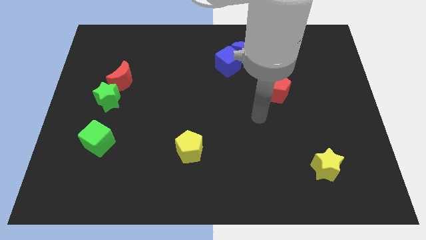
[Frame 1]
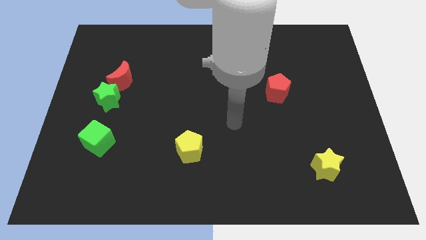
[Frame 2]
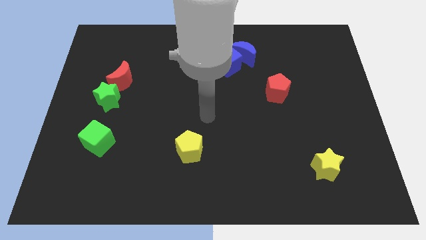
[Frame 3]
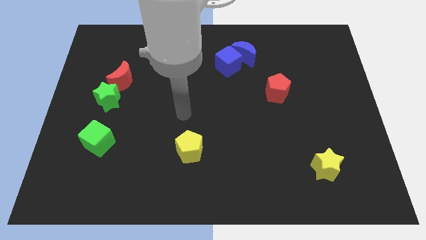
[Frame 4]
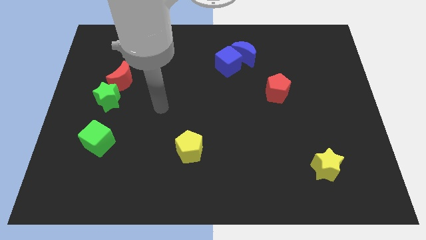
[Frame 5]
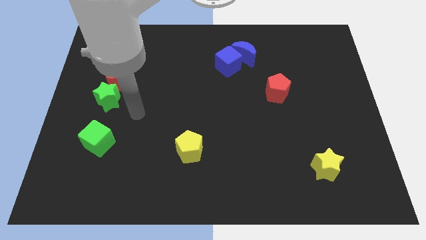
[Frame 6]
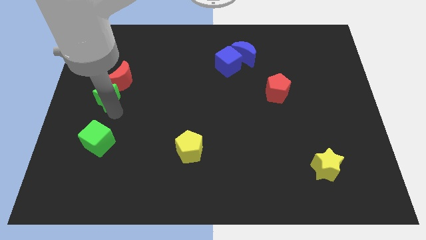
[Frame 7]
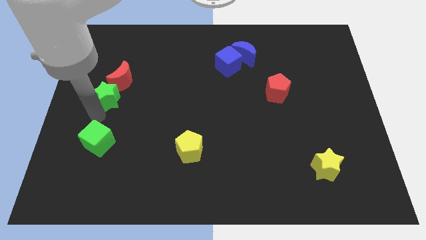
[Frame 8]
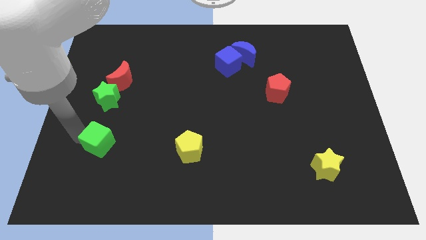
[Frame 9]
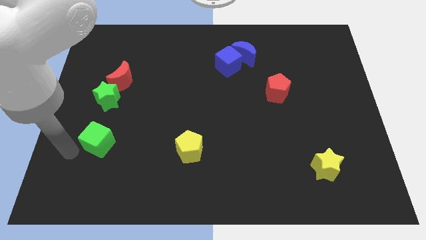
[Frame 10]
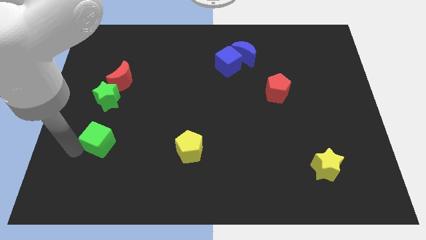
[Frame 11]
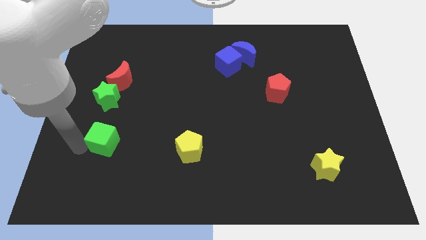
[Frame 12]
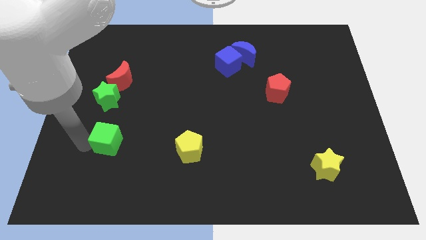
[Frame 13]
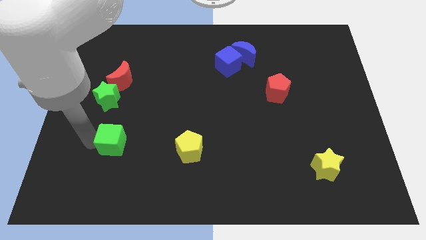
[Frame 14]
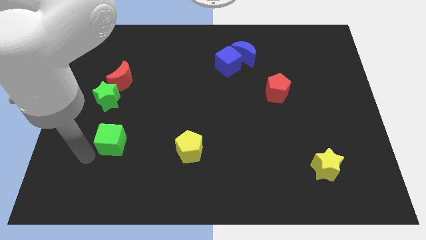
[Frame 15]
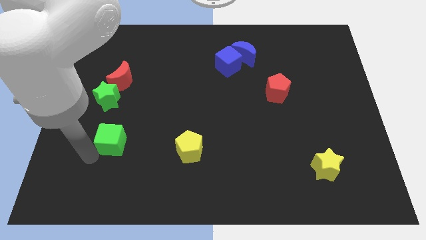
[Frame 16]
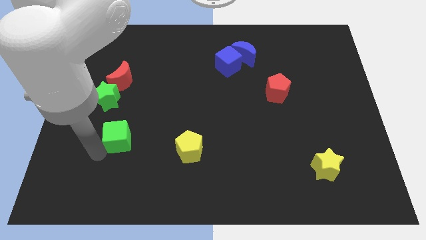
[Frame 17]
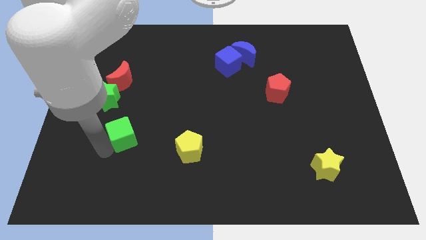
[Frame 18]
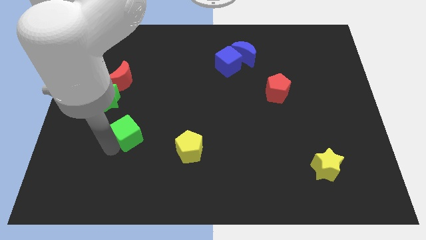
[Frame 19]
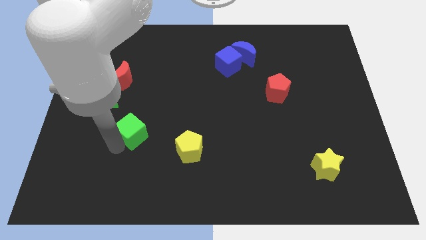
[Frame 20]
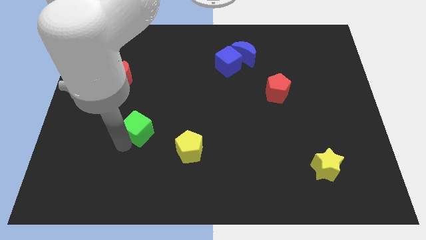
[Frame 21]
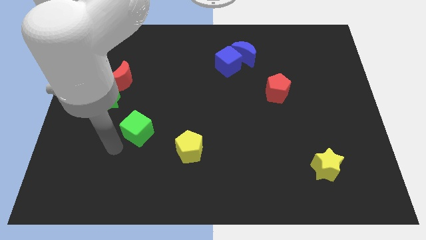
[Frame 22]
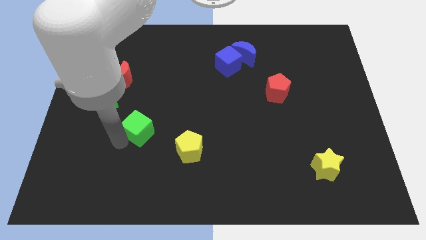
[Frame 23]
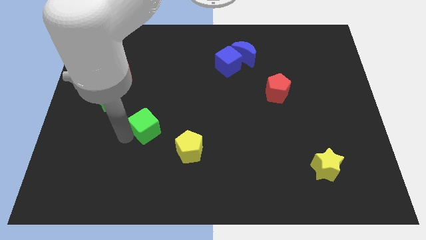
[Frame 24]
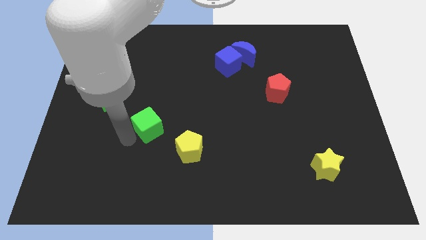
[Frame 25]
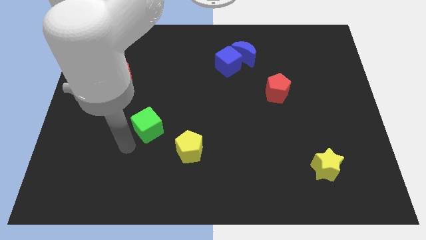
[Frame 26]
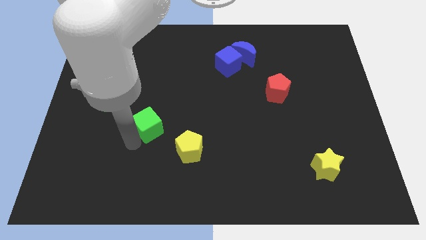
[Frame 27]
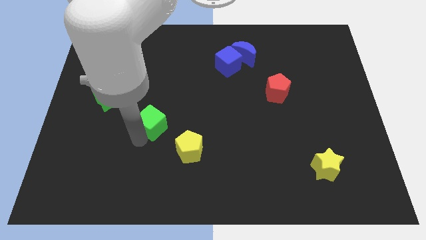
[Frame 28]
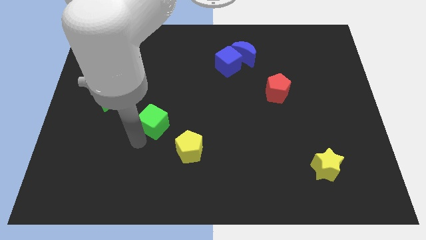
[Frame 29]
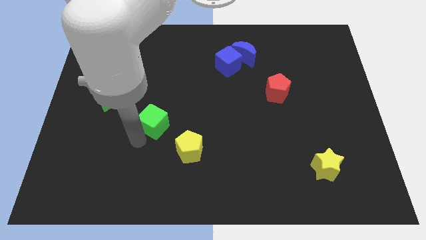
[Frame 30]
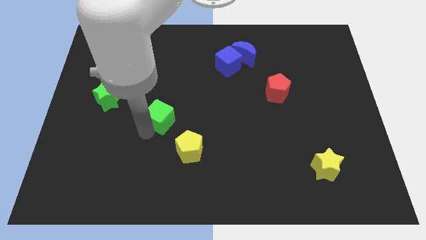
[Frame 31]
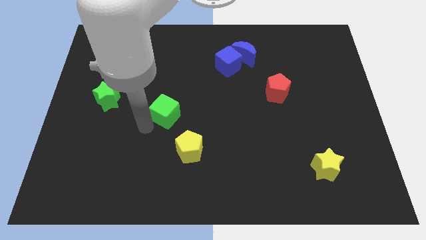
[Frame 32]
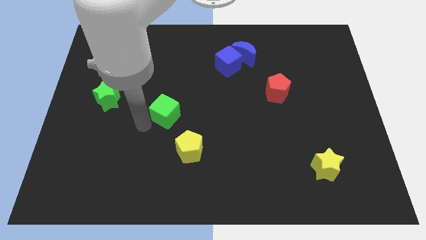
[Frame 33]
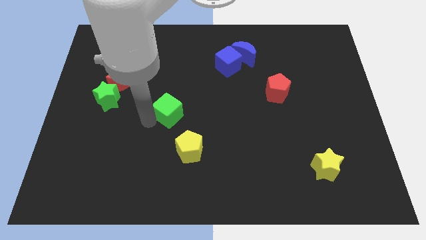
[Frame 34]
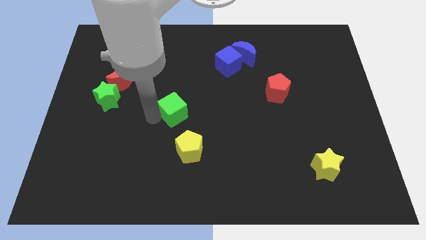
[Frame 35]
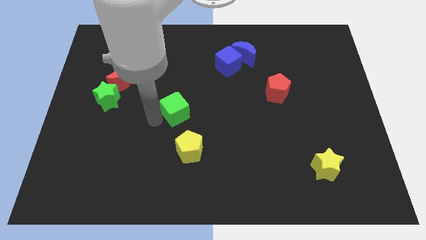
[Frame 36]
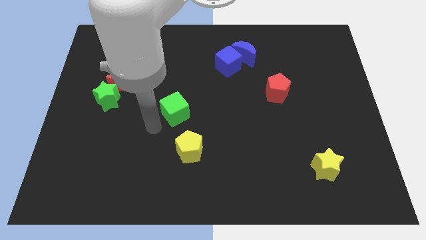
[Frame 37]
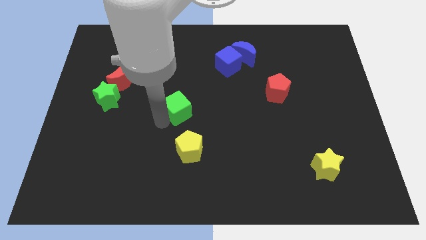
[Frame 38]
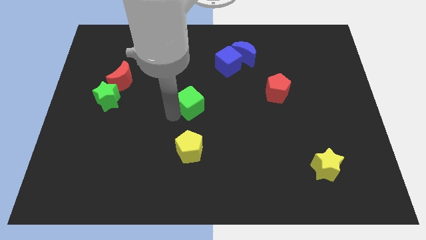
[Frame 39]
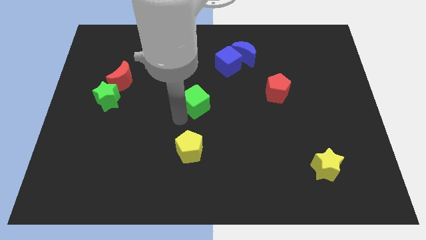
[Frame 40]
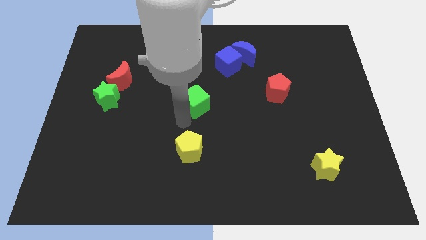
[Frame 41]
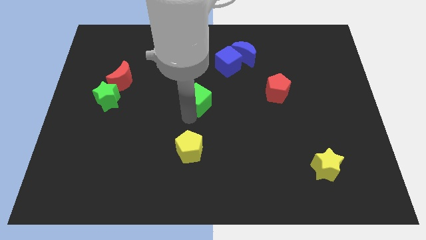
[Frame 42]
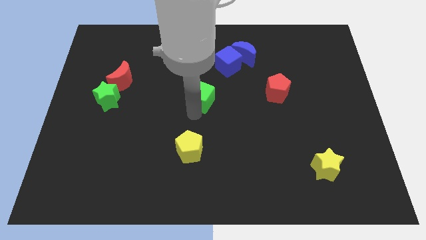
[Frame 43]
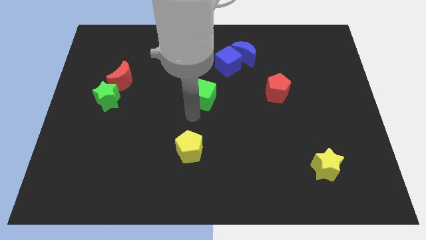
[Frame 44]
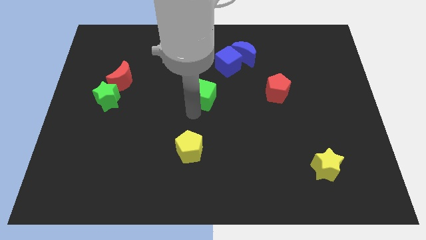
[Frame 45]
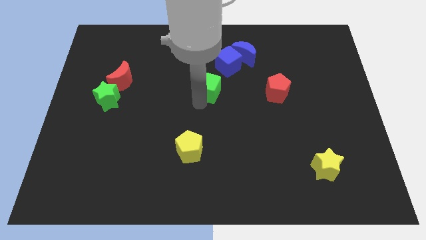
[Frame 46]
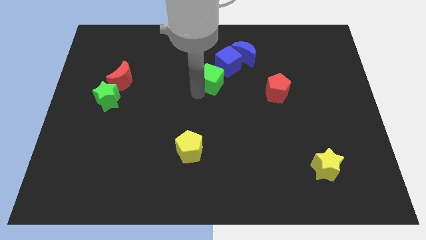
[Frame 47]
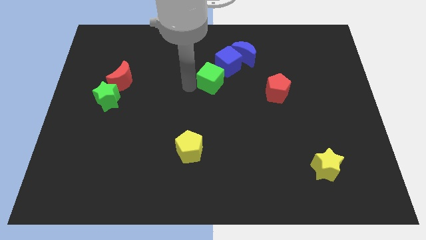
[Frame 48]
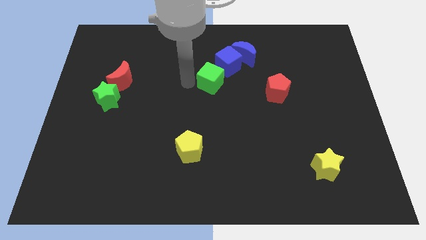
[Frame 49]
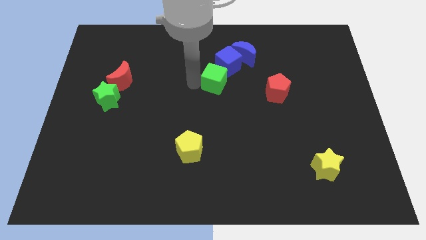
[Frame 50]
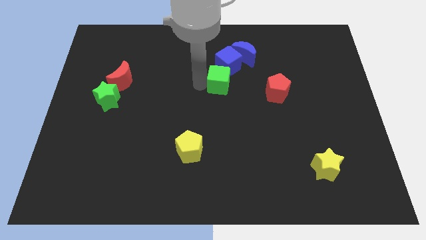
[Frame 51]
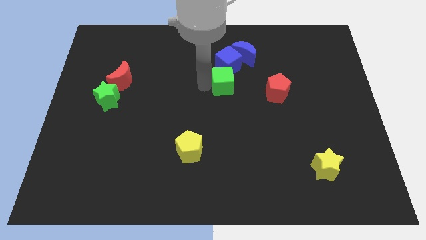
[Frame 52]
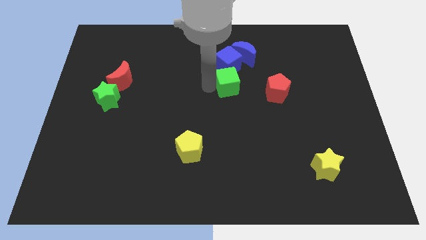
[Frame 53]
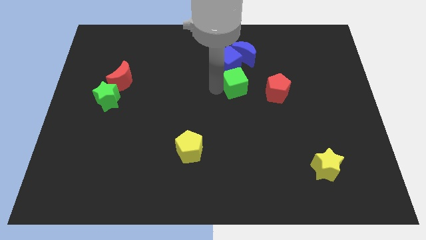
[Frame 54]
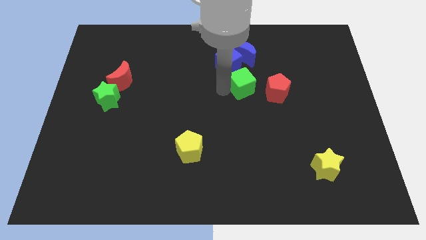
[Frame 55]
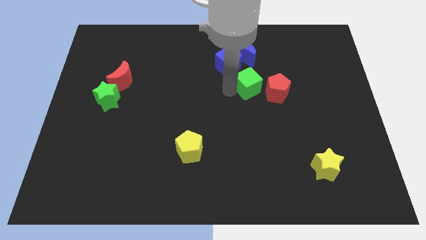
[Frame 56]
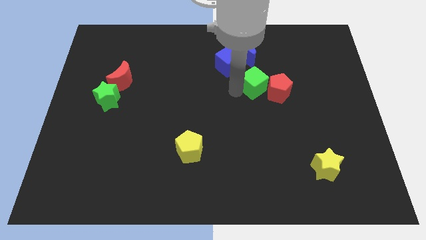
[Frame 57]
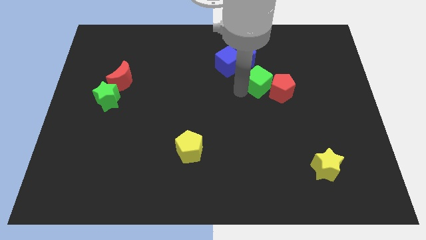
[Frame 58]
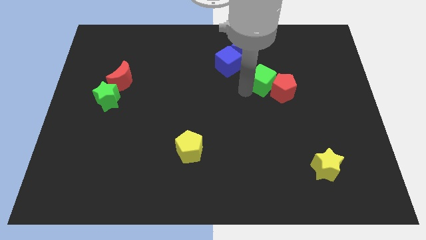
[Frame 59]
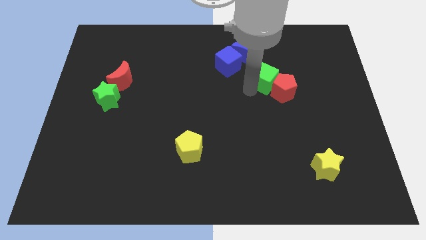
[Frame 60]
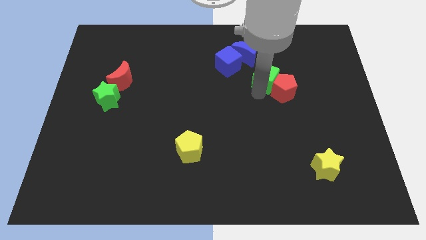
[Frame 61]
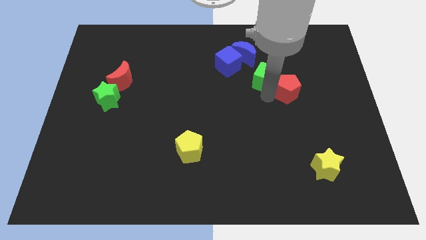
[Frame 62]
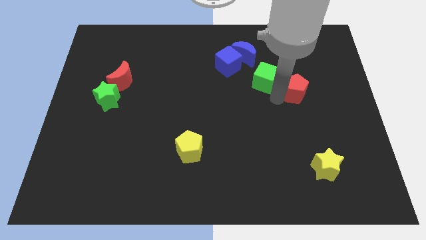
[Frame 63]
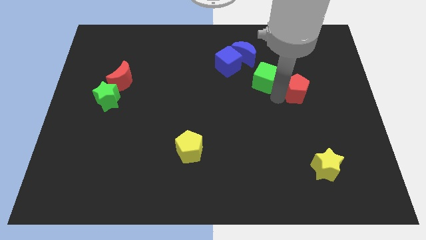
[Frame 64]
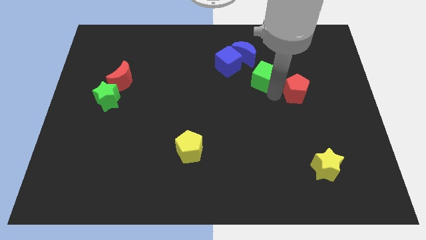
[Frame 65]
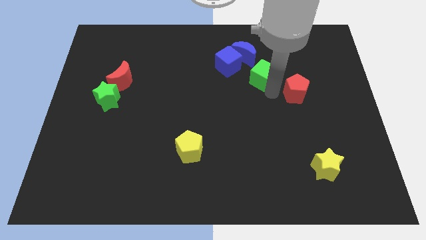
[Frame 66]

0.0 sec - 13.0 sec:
move the green cube to the right side of the blue cube

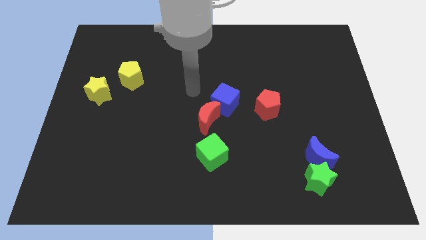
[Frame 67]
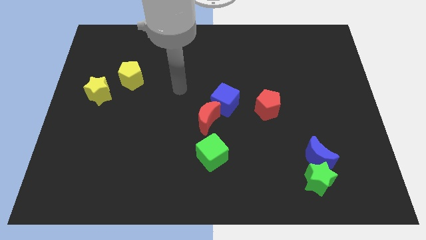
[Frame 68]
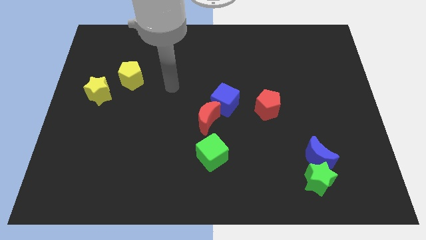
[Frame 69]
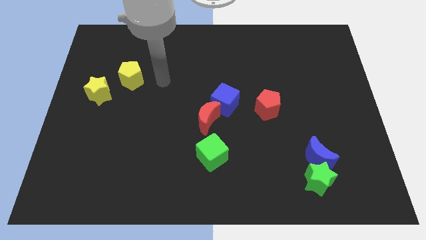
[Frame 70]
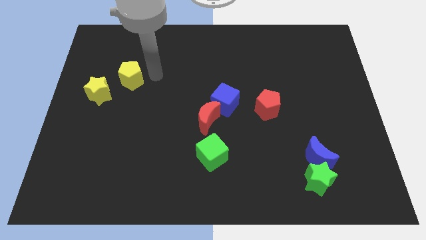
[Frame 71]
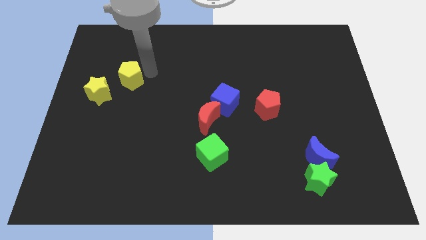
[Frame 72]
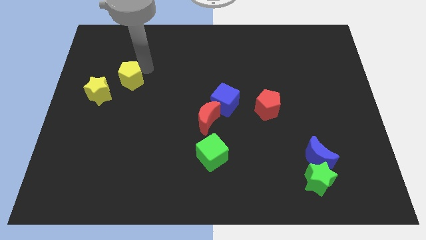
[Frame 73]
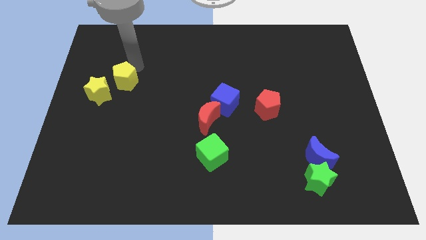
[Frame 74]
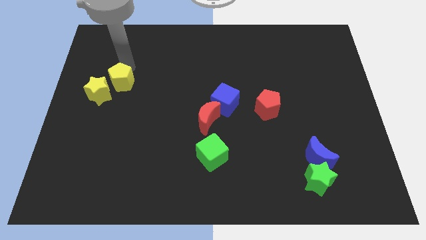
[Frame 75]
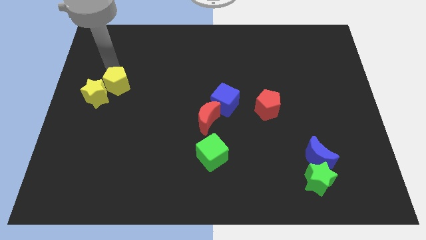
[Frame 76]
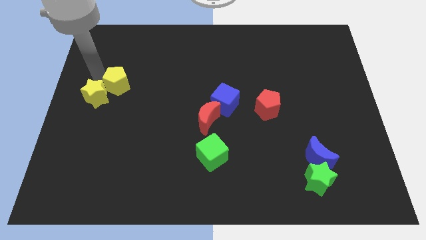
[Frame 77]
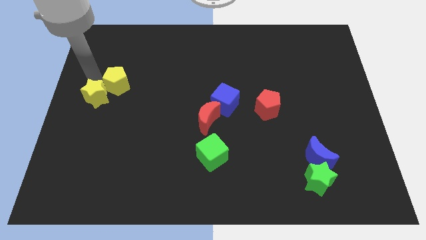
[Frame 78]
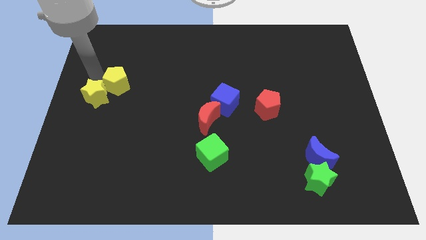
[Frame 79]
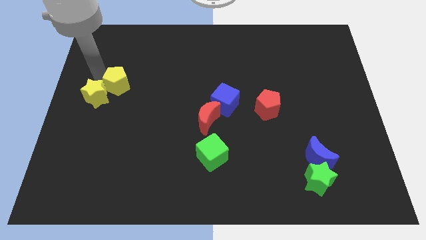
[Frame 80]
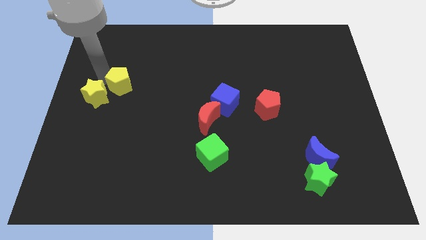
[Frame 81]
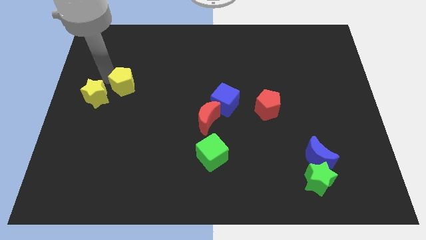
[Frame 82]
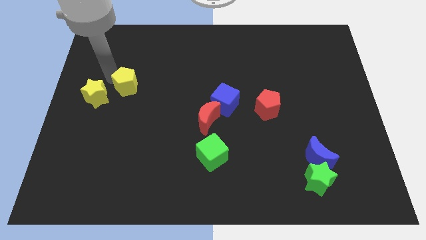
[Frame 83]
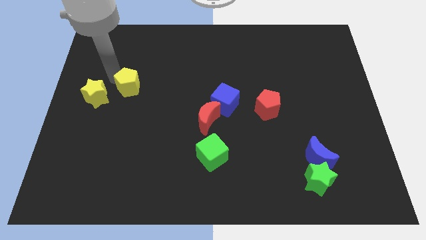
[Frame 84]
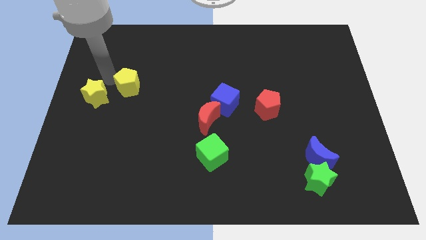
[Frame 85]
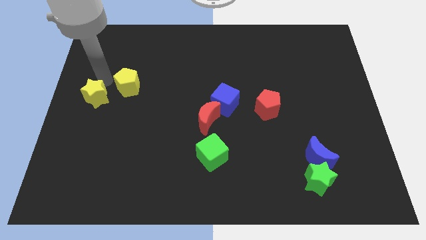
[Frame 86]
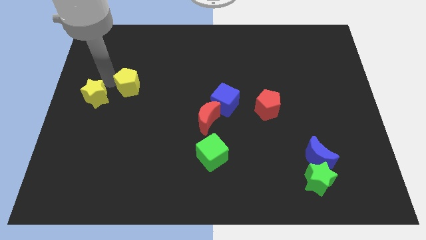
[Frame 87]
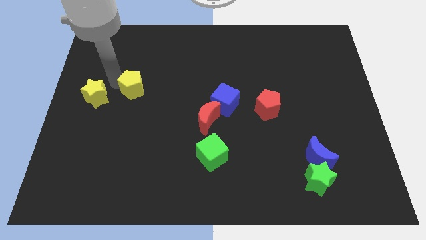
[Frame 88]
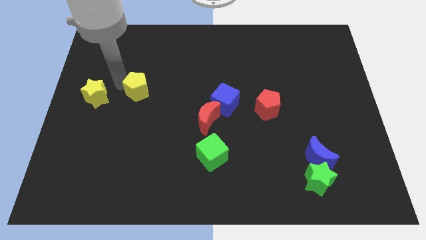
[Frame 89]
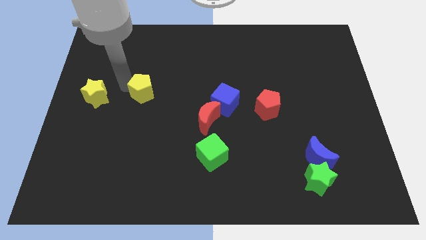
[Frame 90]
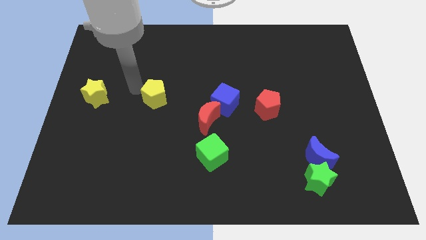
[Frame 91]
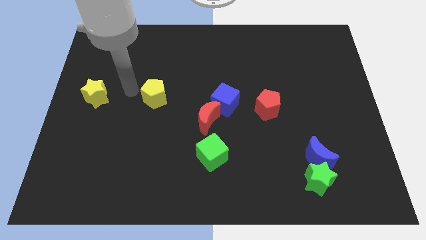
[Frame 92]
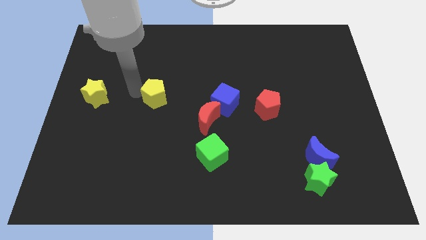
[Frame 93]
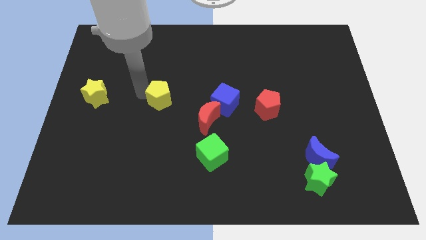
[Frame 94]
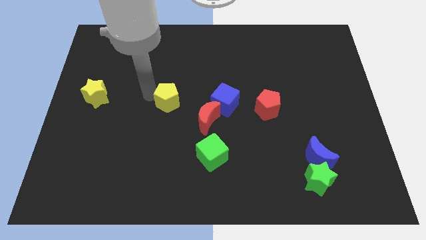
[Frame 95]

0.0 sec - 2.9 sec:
move the yellow pentagon to the top left of the red moon
